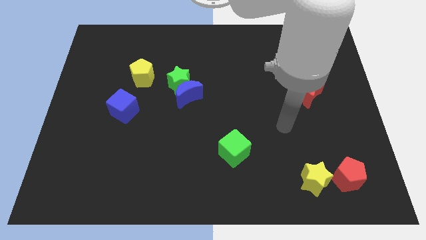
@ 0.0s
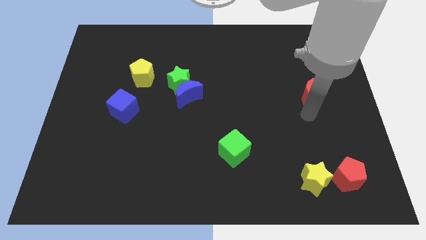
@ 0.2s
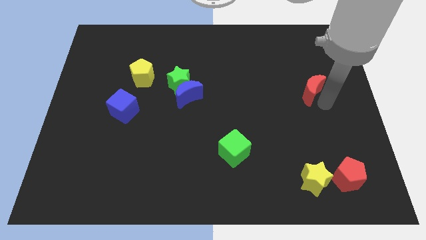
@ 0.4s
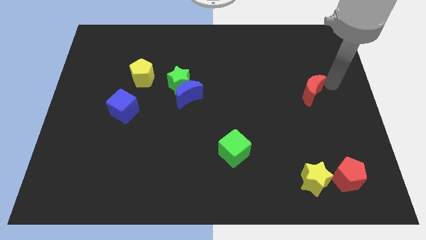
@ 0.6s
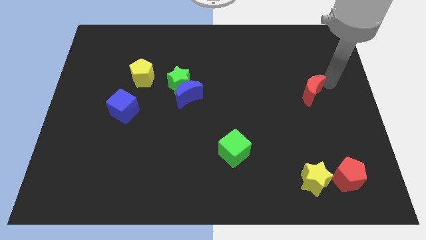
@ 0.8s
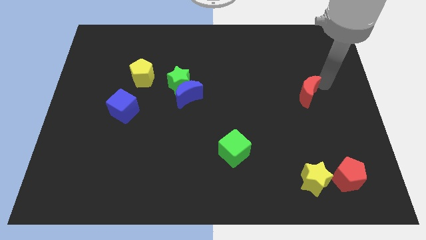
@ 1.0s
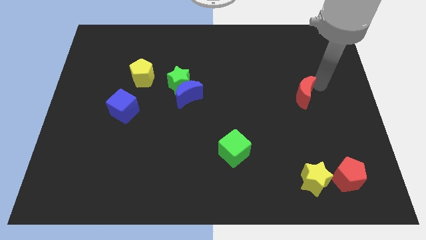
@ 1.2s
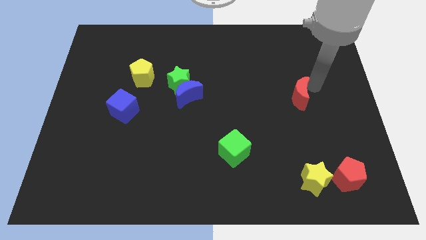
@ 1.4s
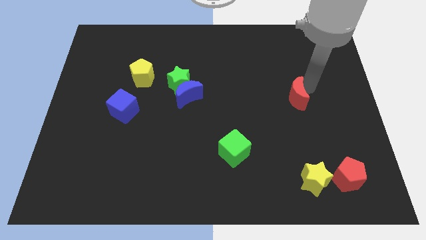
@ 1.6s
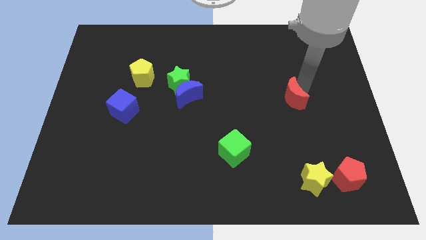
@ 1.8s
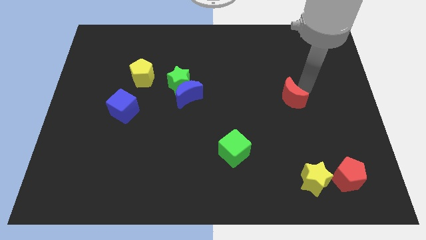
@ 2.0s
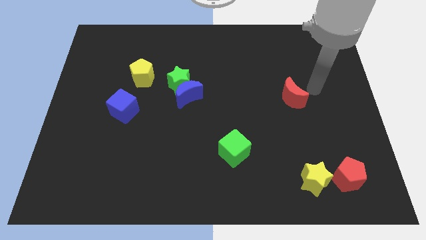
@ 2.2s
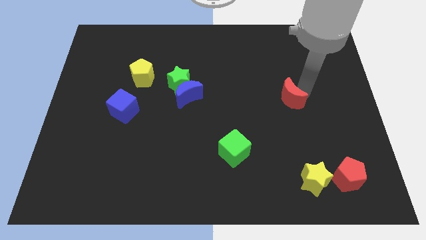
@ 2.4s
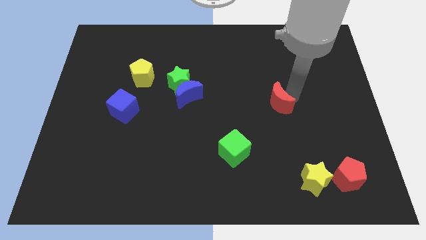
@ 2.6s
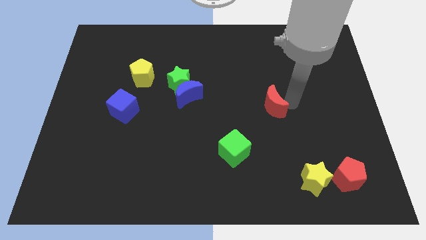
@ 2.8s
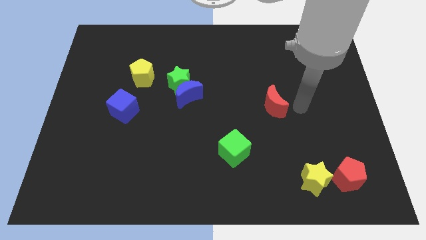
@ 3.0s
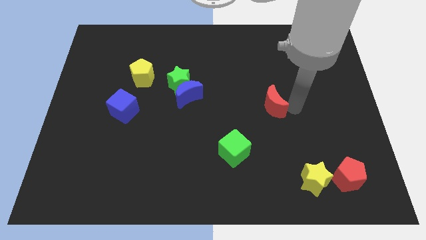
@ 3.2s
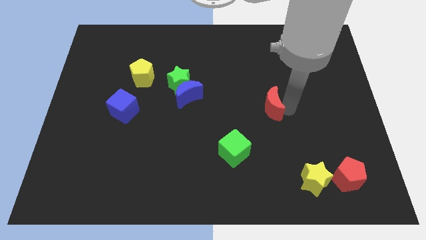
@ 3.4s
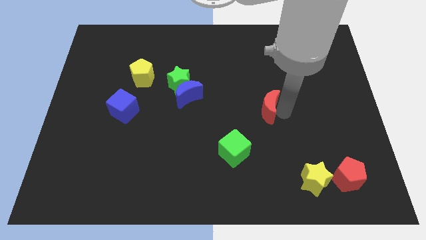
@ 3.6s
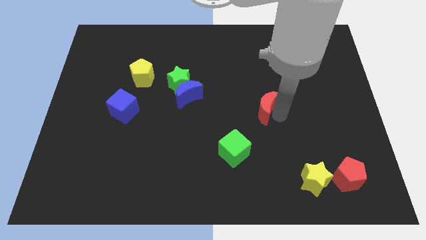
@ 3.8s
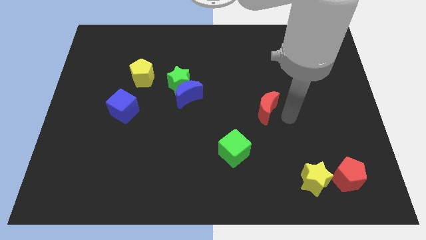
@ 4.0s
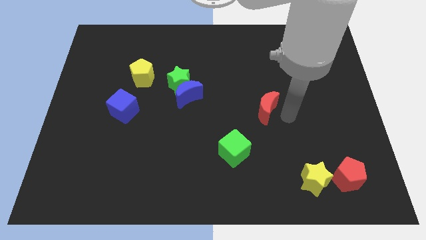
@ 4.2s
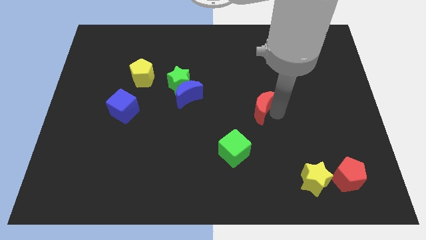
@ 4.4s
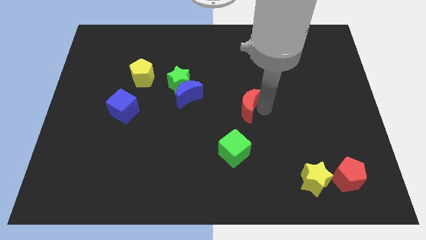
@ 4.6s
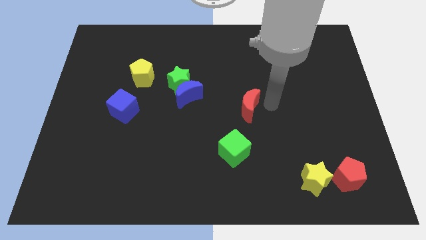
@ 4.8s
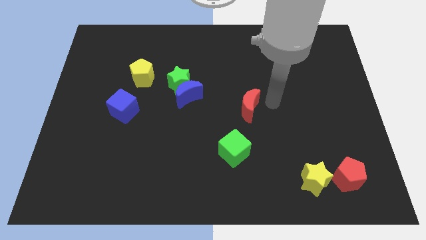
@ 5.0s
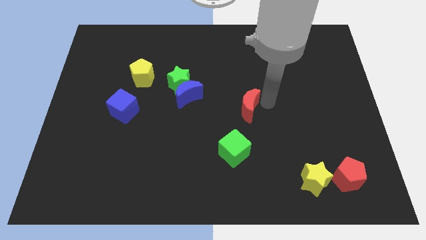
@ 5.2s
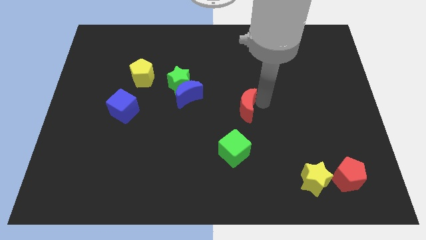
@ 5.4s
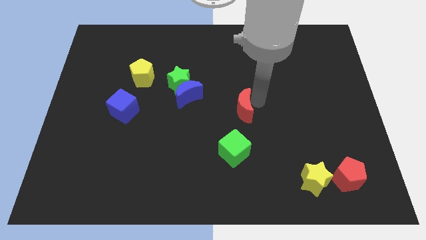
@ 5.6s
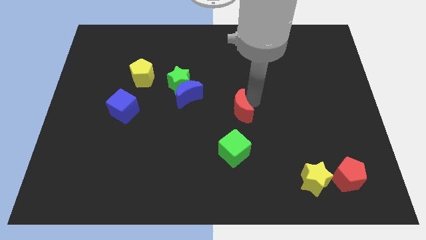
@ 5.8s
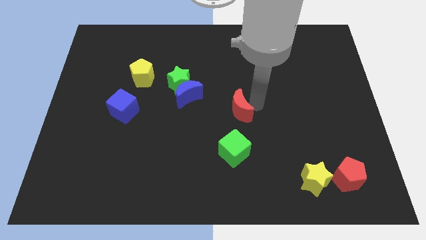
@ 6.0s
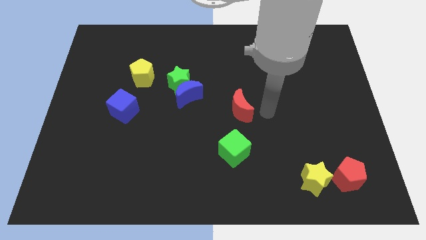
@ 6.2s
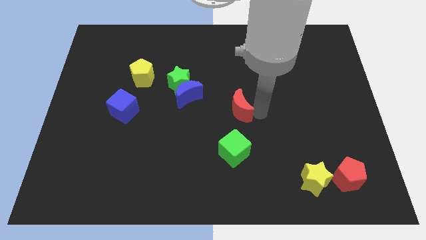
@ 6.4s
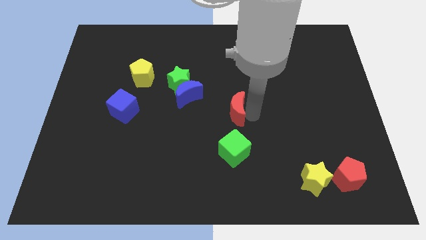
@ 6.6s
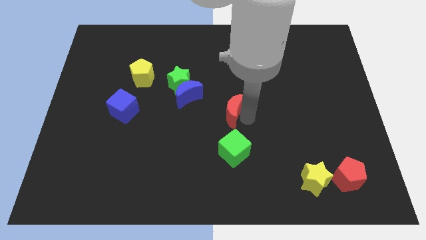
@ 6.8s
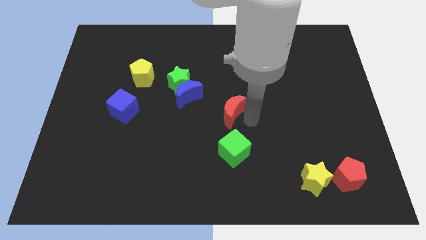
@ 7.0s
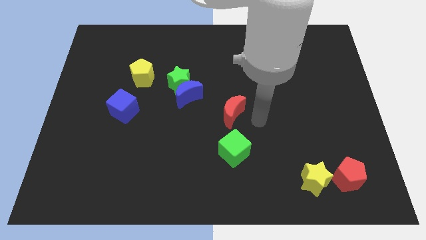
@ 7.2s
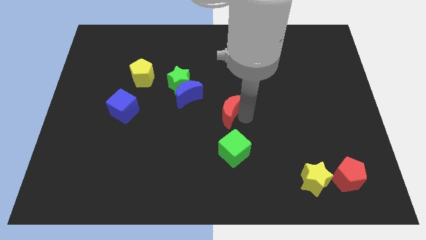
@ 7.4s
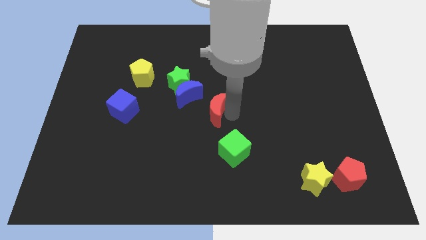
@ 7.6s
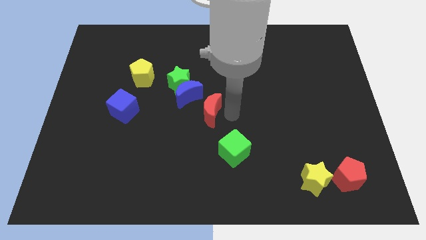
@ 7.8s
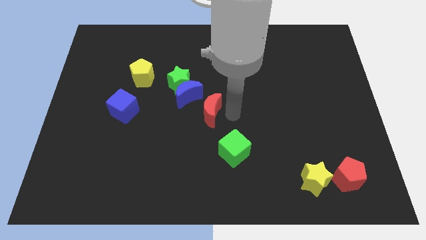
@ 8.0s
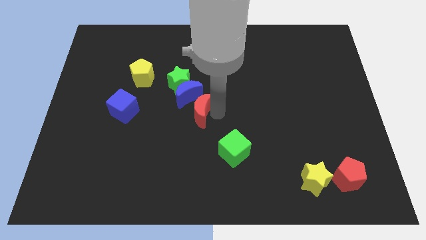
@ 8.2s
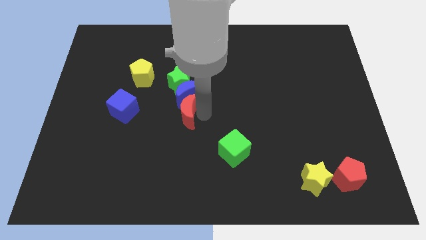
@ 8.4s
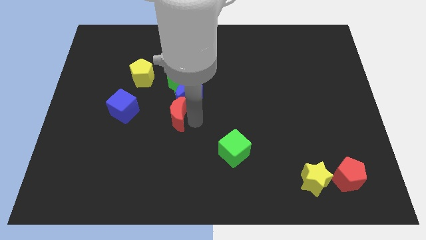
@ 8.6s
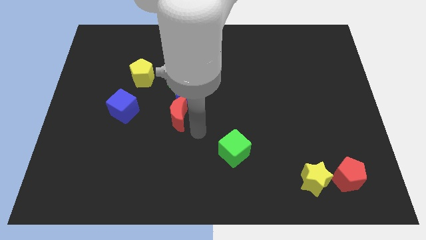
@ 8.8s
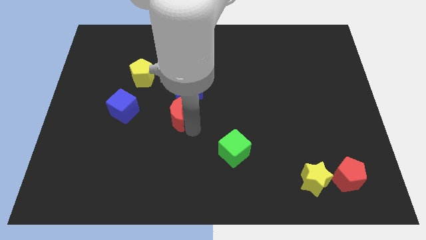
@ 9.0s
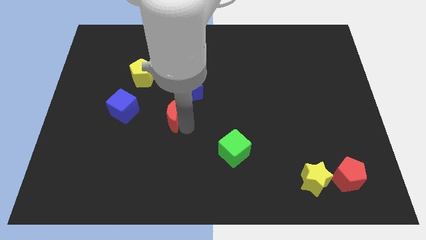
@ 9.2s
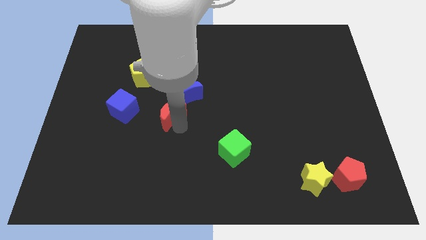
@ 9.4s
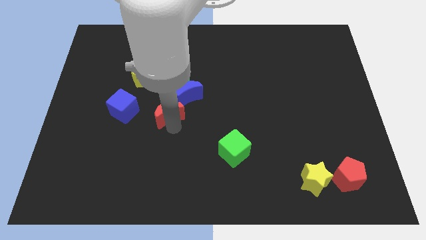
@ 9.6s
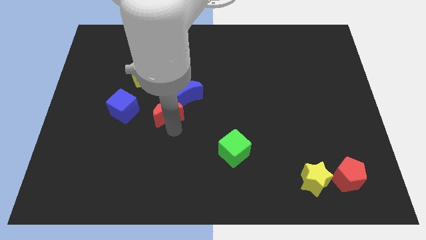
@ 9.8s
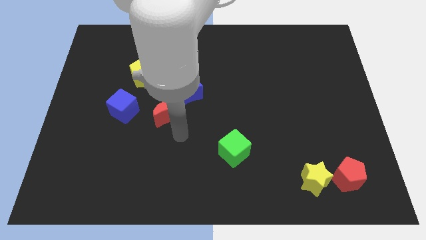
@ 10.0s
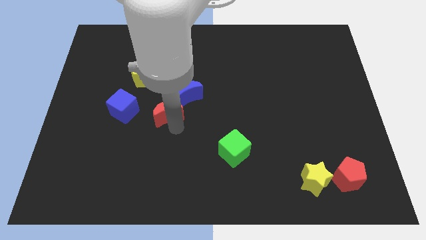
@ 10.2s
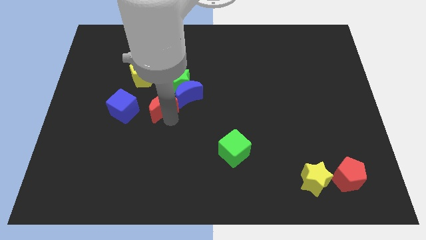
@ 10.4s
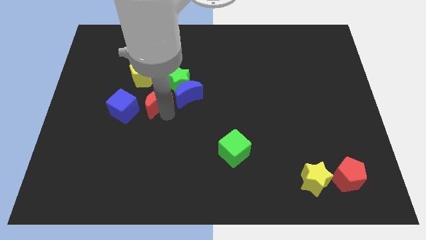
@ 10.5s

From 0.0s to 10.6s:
move the red moon to the top right of the blue cube

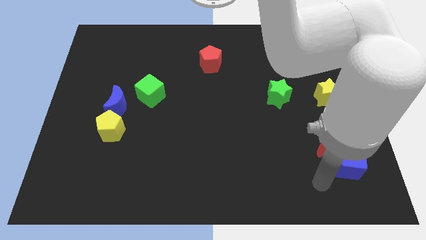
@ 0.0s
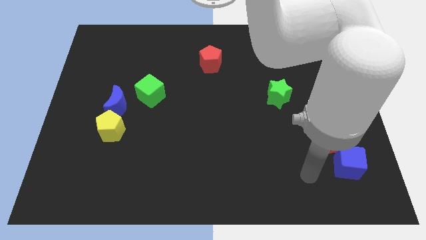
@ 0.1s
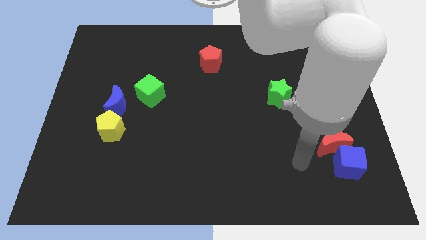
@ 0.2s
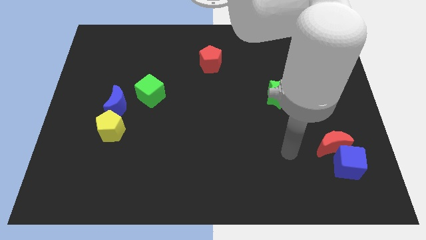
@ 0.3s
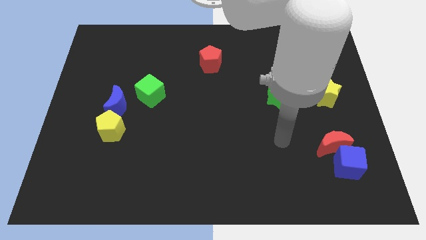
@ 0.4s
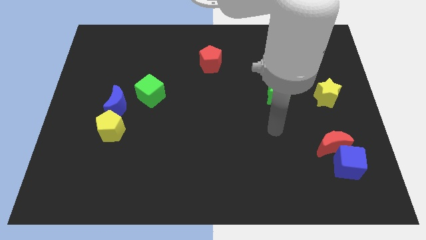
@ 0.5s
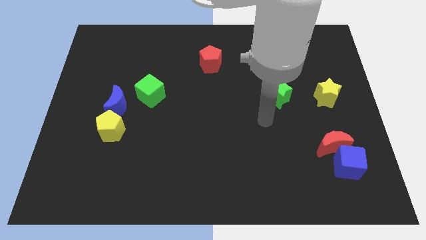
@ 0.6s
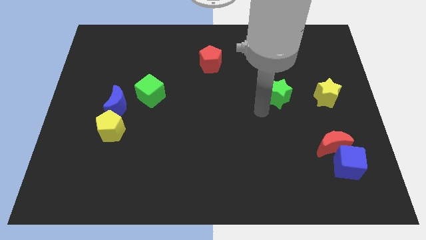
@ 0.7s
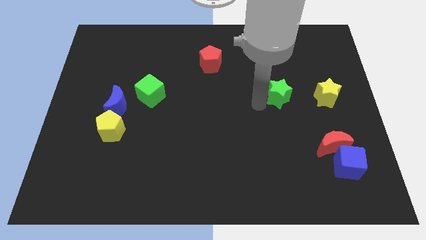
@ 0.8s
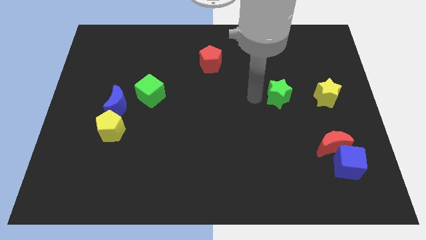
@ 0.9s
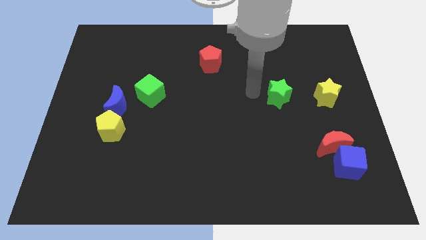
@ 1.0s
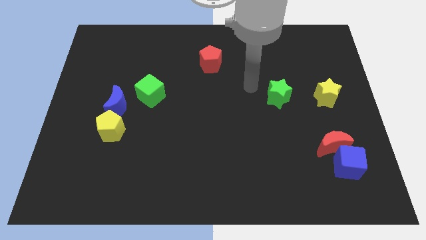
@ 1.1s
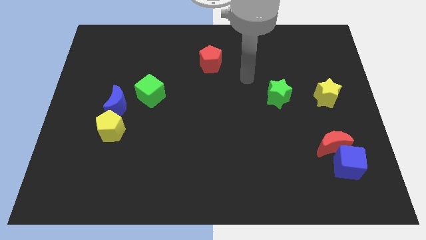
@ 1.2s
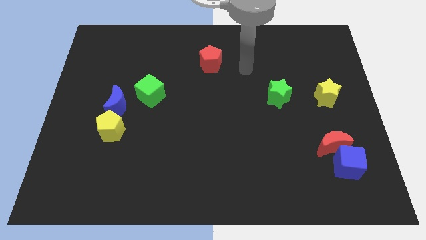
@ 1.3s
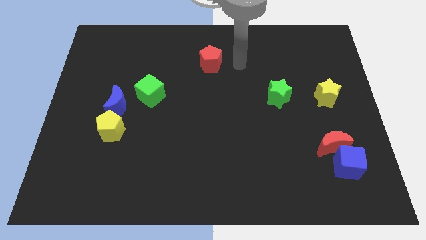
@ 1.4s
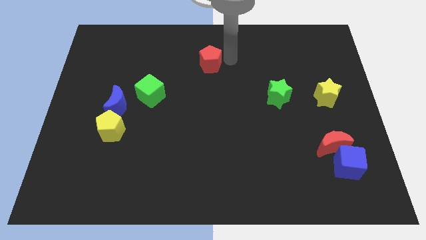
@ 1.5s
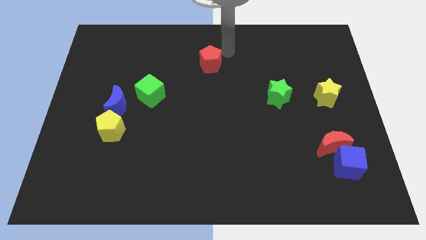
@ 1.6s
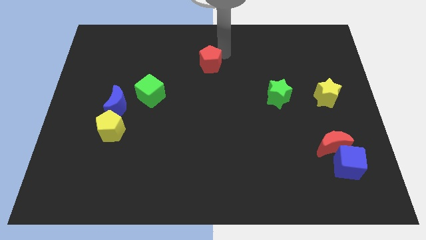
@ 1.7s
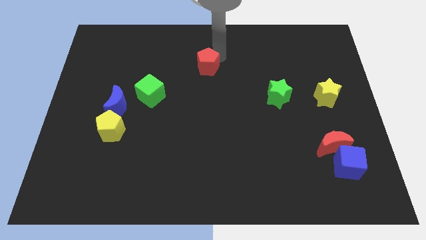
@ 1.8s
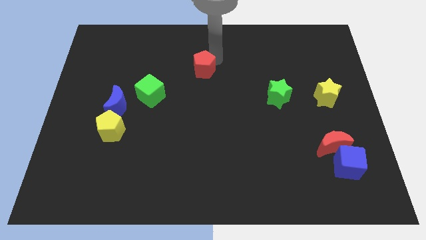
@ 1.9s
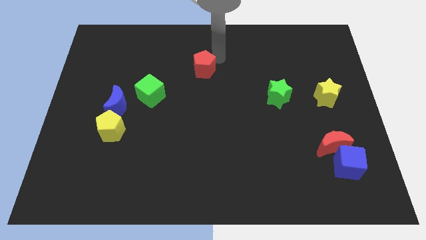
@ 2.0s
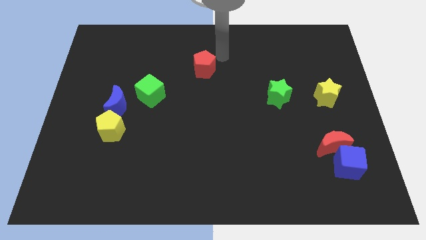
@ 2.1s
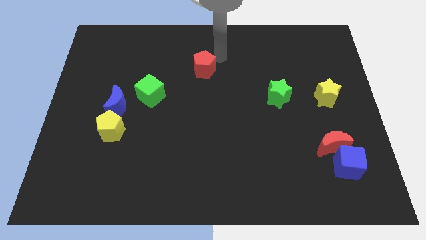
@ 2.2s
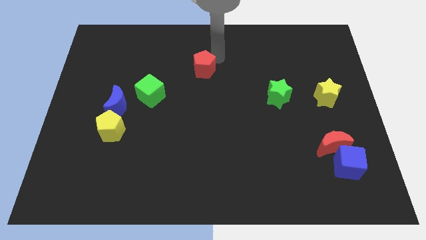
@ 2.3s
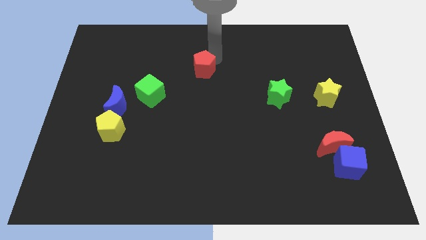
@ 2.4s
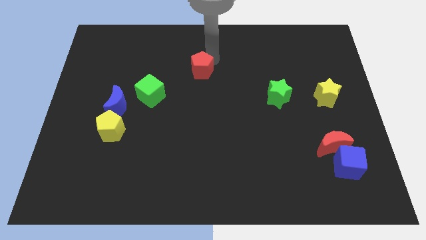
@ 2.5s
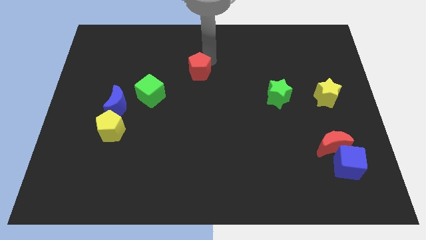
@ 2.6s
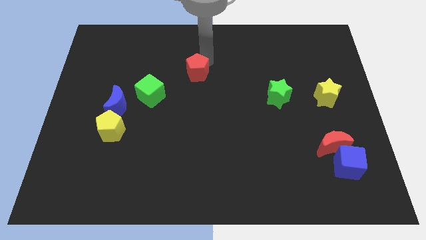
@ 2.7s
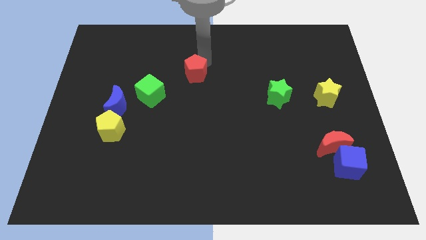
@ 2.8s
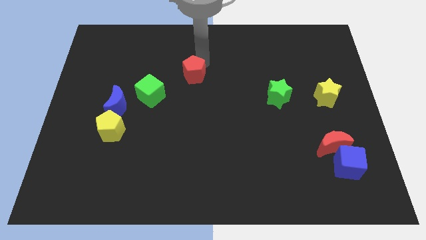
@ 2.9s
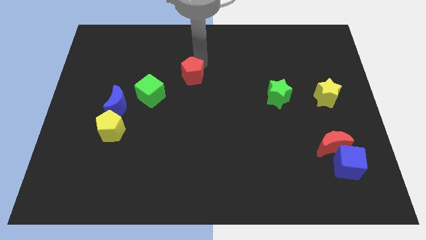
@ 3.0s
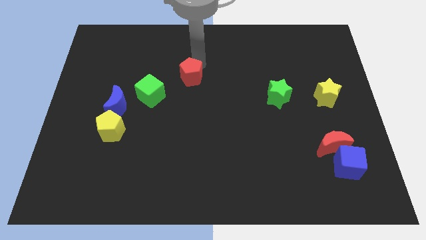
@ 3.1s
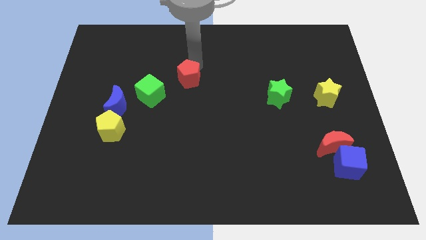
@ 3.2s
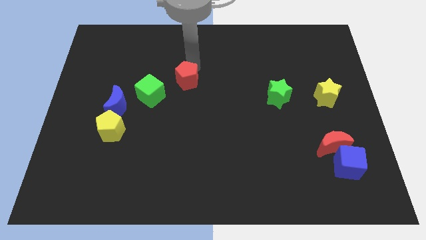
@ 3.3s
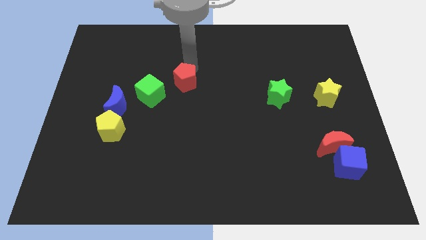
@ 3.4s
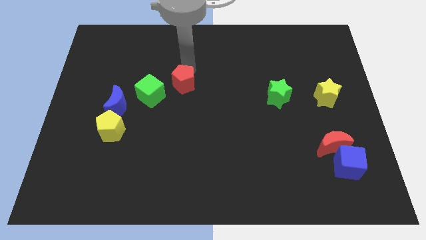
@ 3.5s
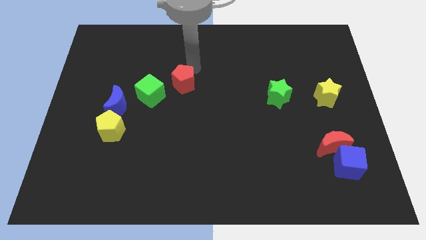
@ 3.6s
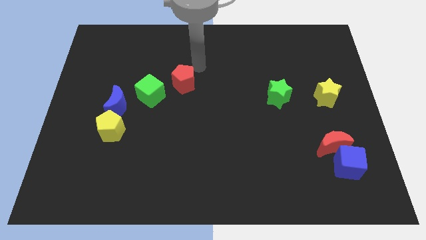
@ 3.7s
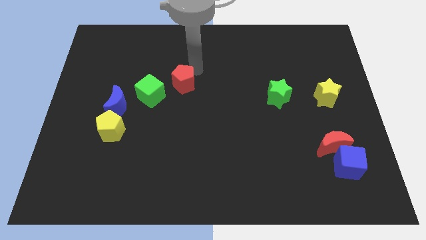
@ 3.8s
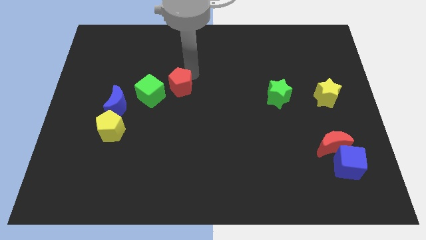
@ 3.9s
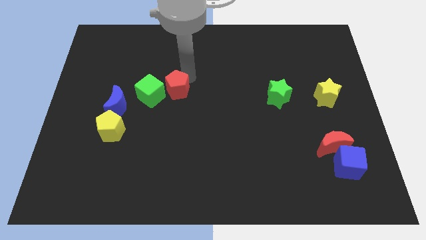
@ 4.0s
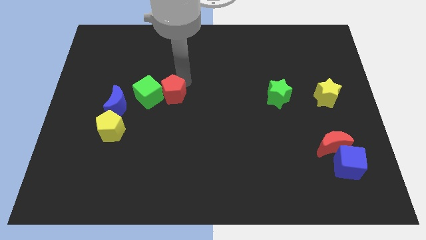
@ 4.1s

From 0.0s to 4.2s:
move the red pentagon just right of the blue moon
